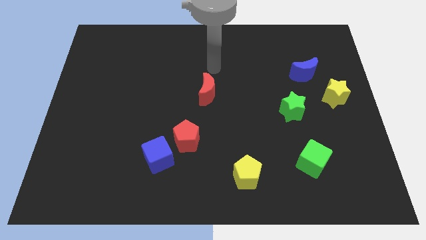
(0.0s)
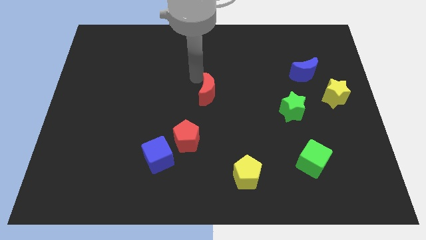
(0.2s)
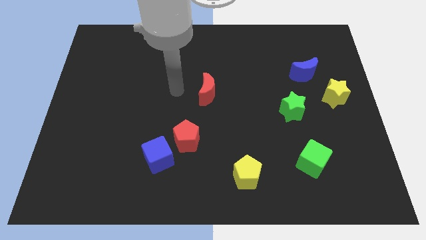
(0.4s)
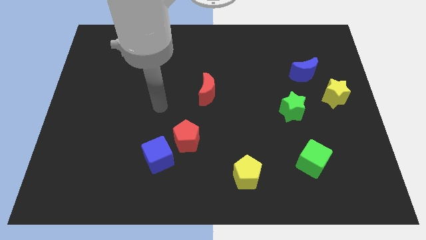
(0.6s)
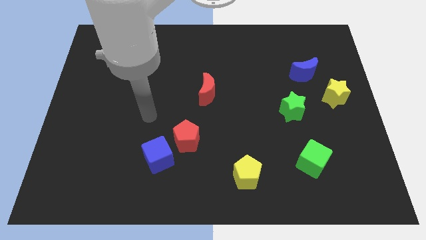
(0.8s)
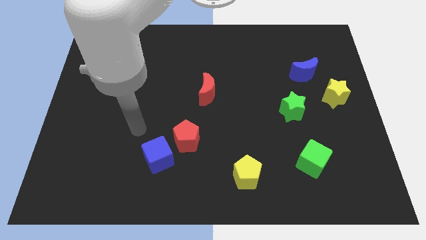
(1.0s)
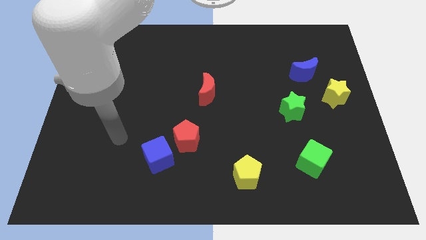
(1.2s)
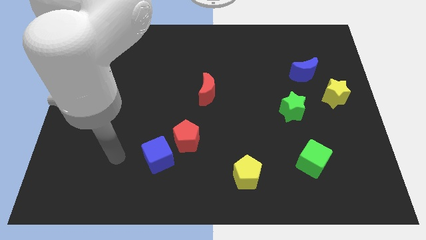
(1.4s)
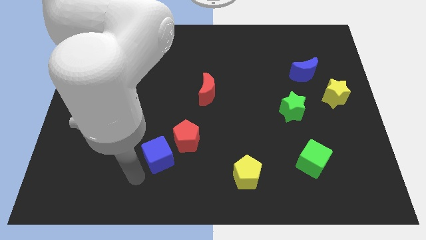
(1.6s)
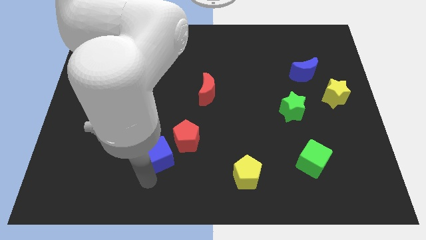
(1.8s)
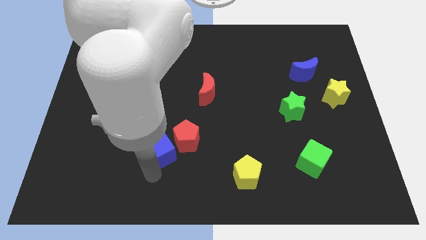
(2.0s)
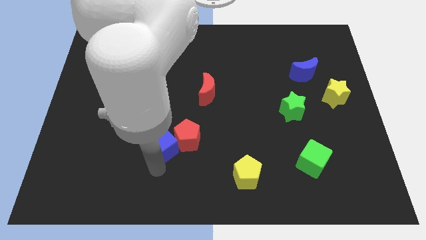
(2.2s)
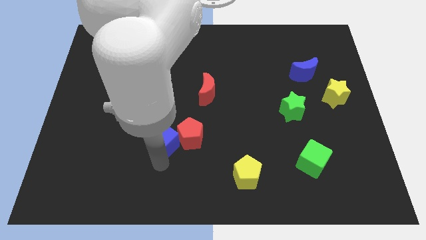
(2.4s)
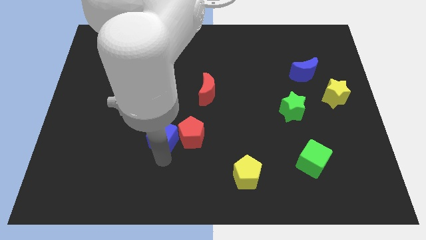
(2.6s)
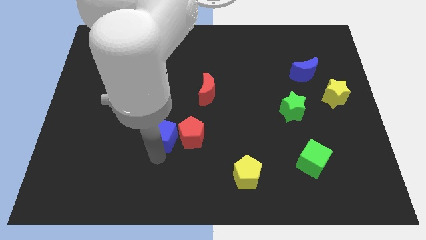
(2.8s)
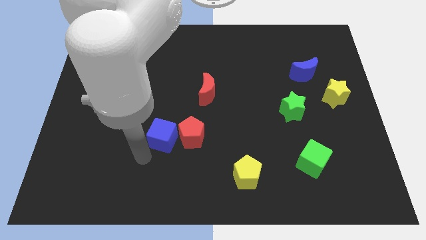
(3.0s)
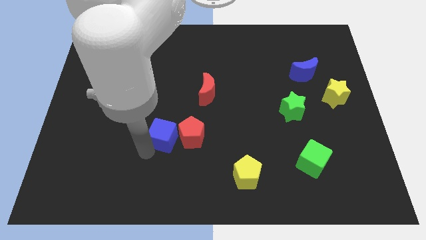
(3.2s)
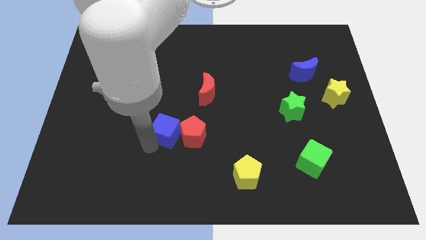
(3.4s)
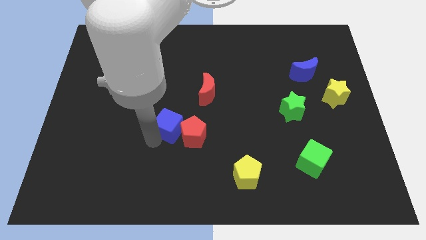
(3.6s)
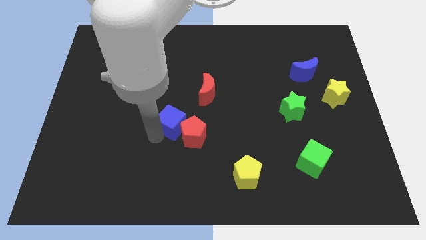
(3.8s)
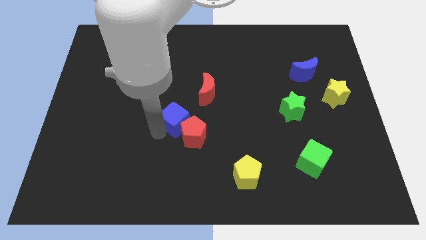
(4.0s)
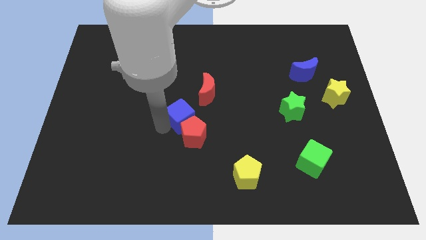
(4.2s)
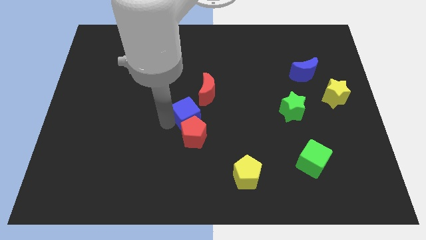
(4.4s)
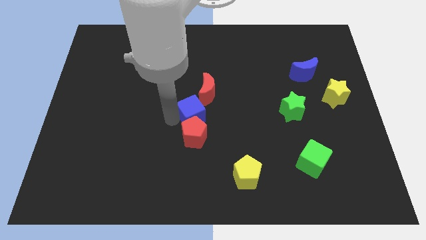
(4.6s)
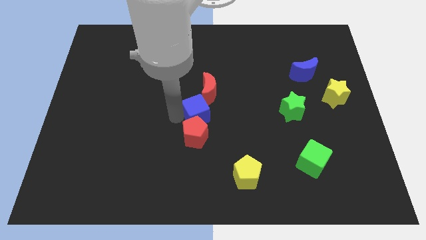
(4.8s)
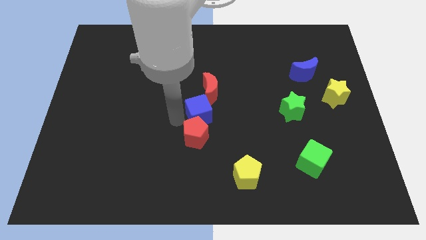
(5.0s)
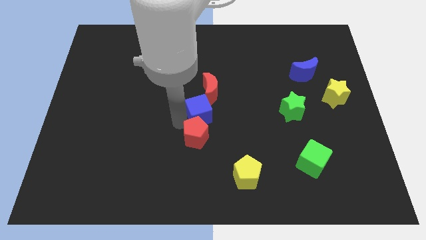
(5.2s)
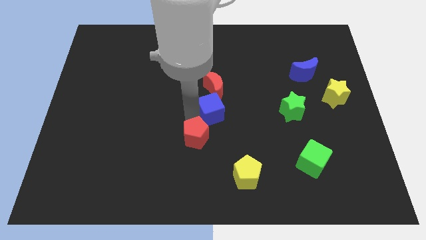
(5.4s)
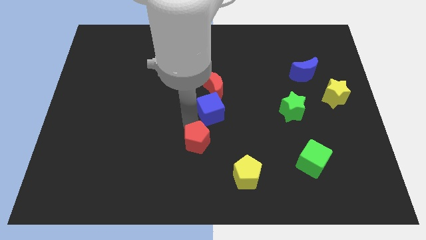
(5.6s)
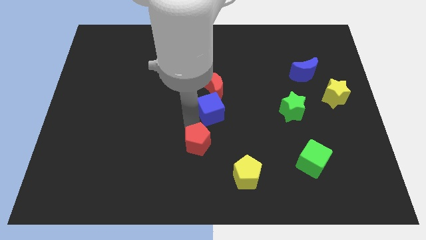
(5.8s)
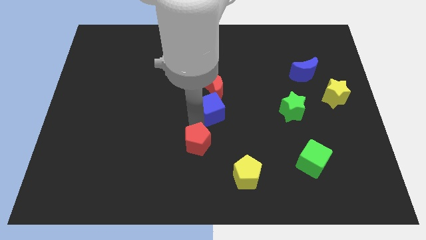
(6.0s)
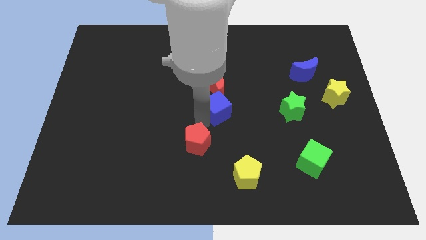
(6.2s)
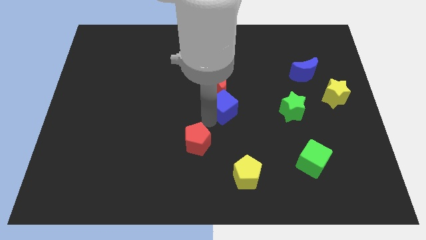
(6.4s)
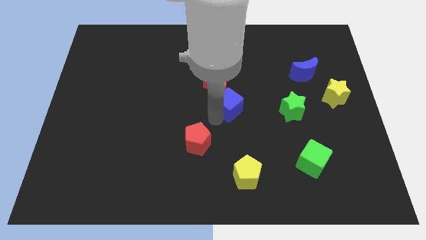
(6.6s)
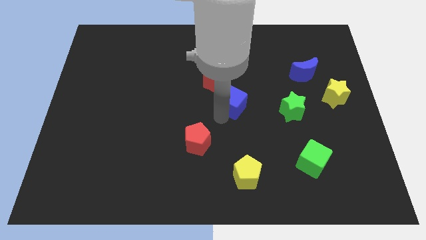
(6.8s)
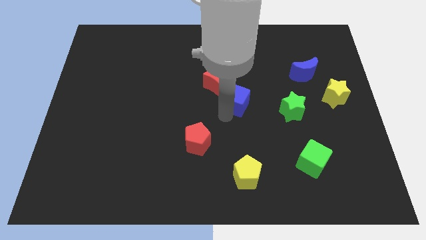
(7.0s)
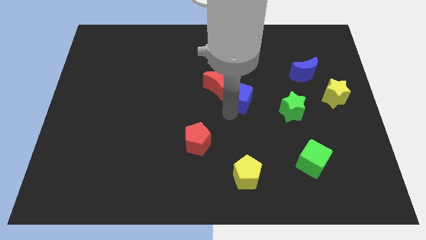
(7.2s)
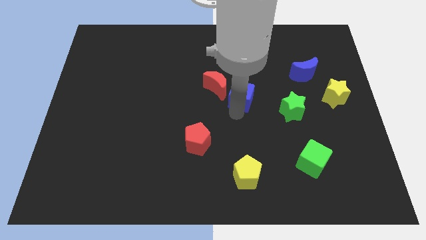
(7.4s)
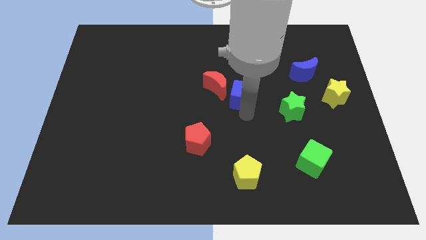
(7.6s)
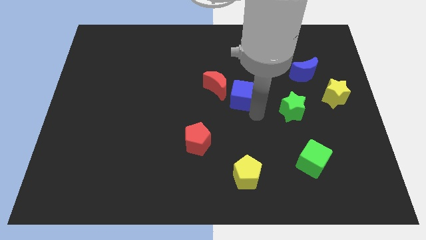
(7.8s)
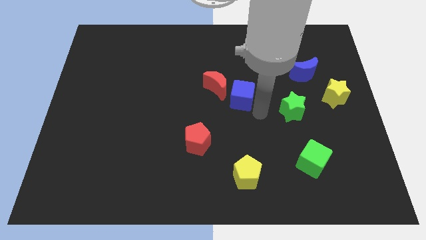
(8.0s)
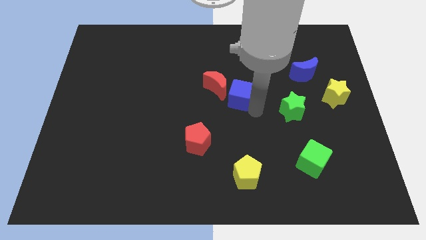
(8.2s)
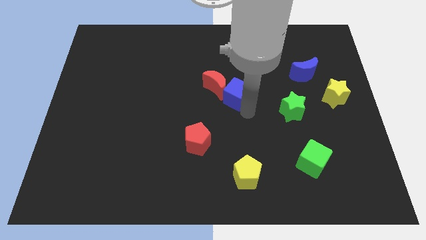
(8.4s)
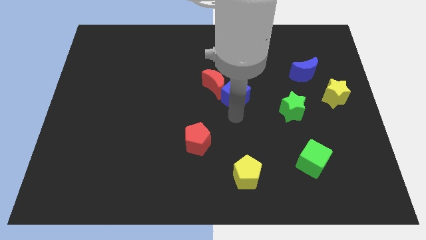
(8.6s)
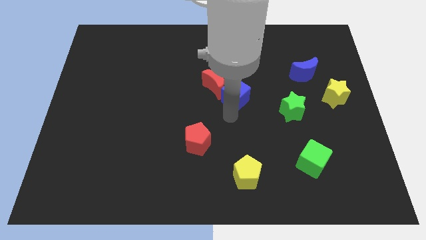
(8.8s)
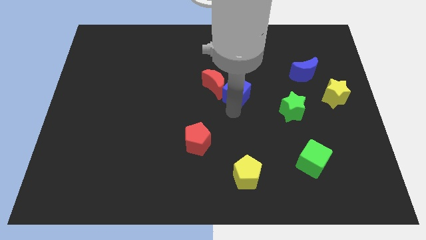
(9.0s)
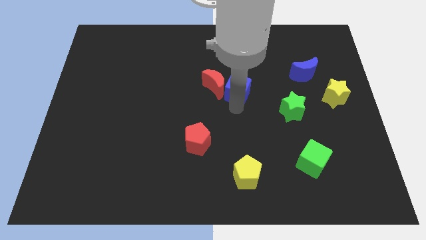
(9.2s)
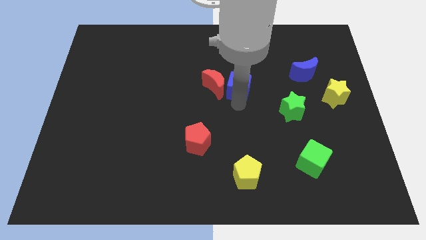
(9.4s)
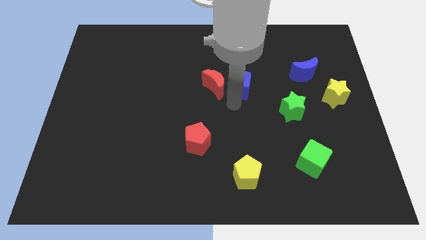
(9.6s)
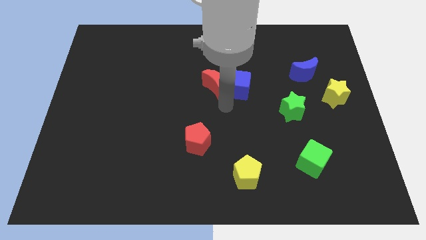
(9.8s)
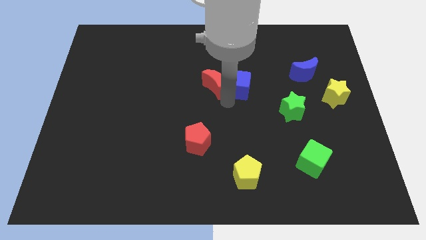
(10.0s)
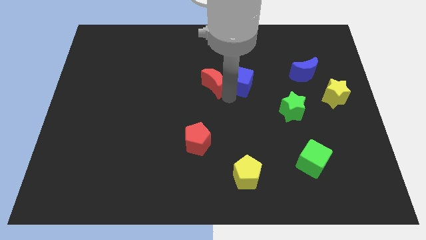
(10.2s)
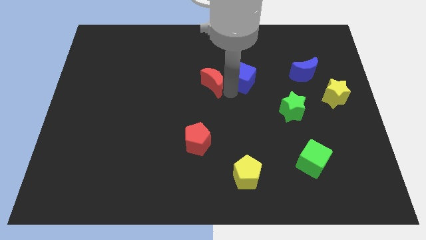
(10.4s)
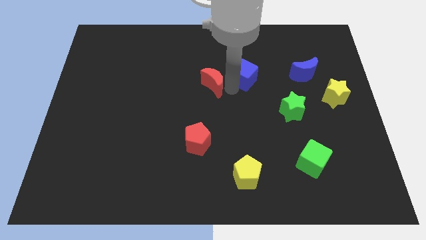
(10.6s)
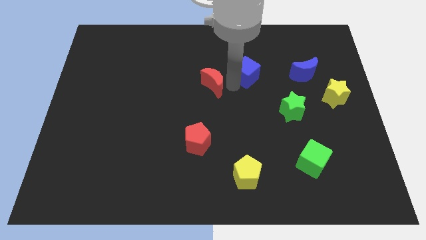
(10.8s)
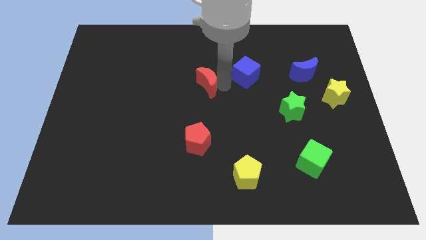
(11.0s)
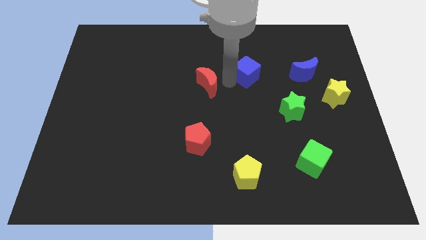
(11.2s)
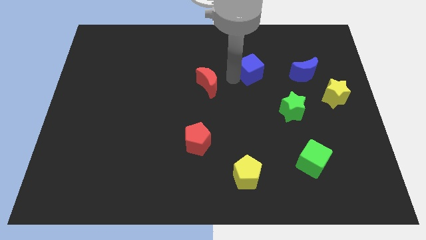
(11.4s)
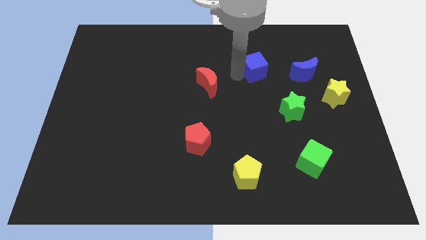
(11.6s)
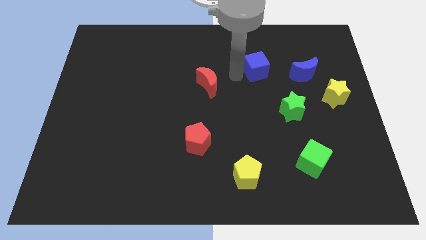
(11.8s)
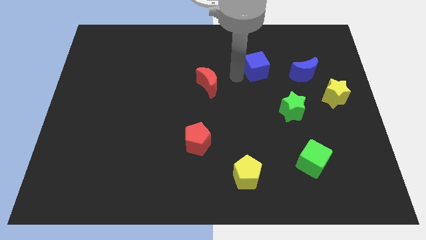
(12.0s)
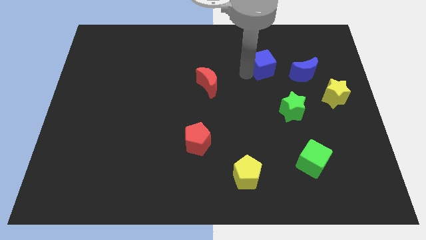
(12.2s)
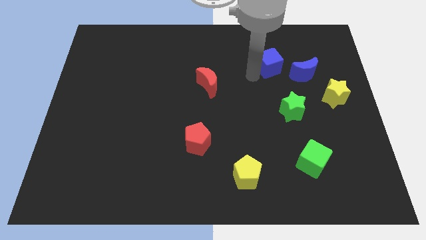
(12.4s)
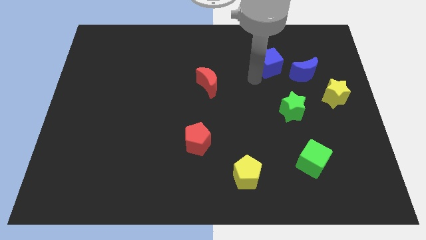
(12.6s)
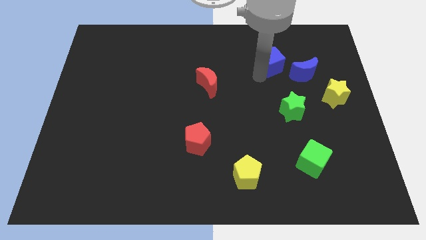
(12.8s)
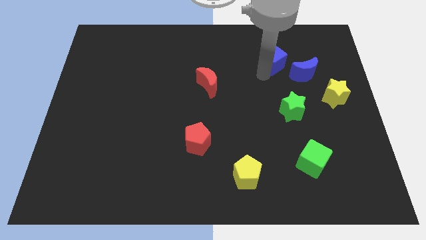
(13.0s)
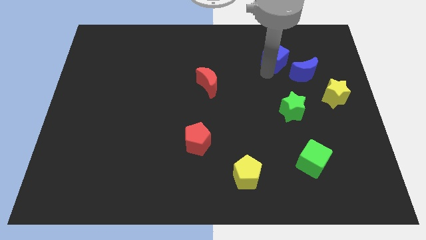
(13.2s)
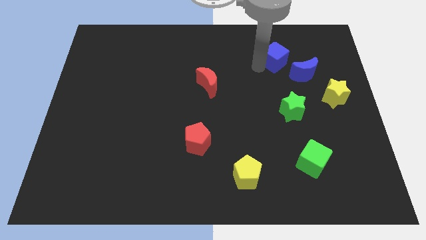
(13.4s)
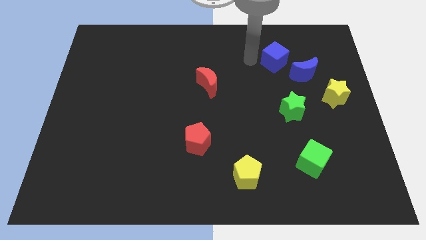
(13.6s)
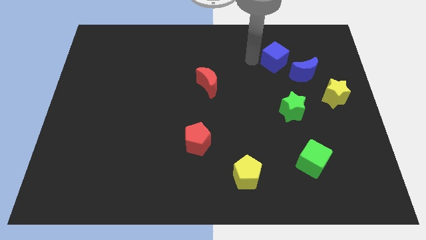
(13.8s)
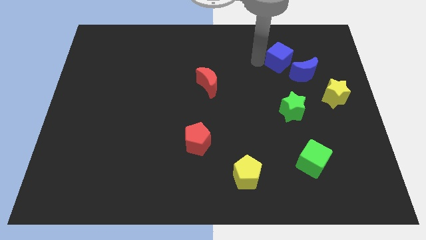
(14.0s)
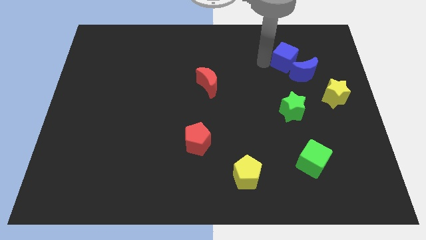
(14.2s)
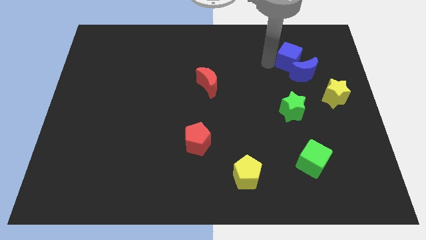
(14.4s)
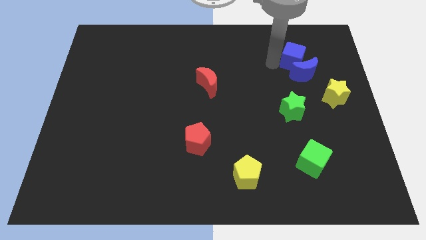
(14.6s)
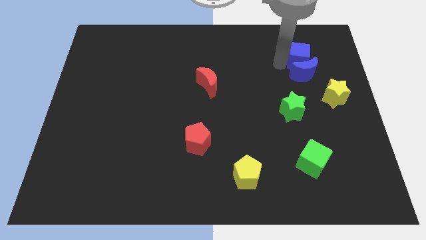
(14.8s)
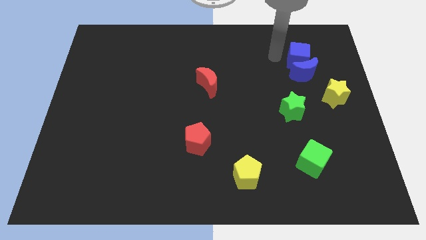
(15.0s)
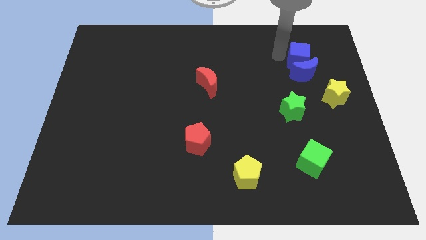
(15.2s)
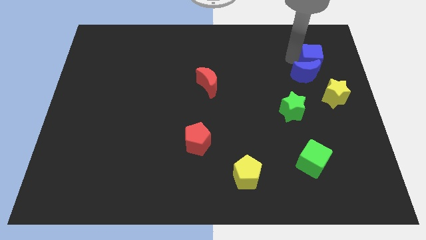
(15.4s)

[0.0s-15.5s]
slide the blue cube to the top of the yellow star
